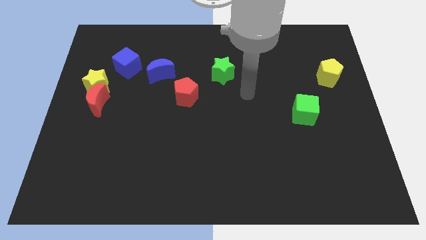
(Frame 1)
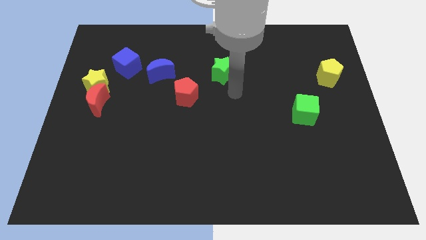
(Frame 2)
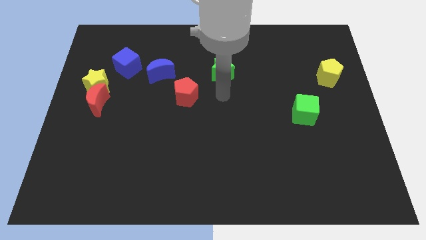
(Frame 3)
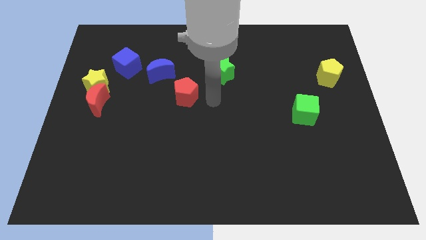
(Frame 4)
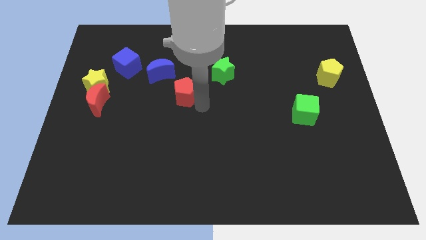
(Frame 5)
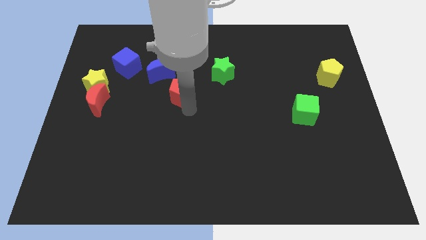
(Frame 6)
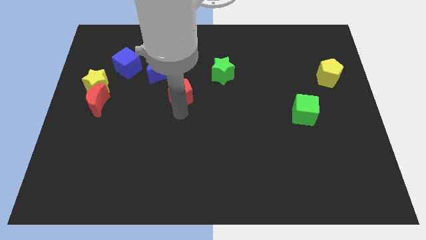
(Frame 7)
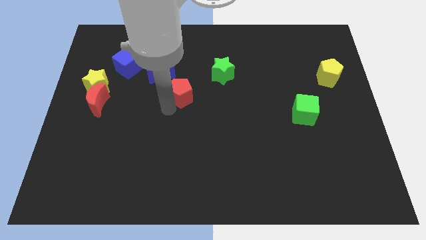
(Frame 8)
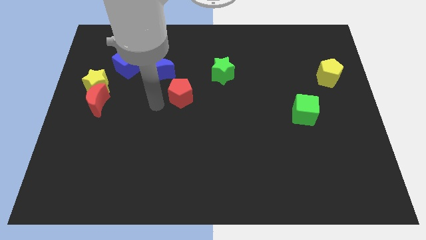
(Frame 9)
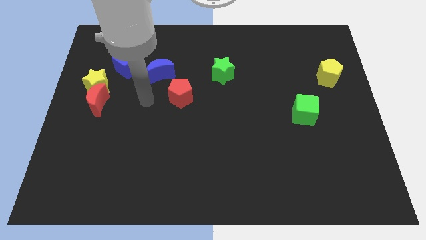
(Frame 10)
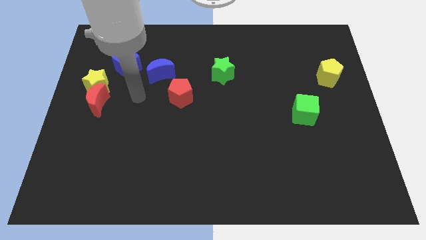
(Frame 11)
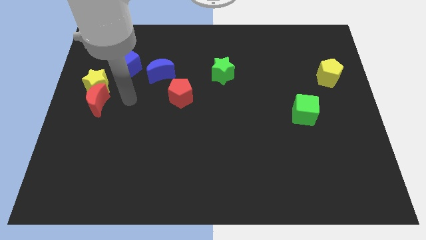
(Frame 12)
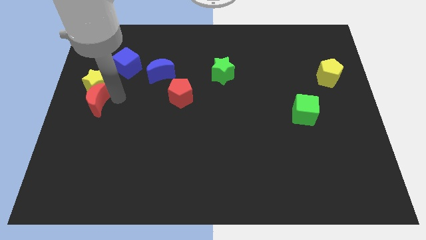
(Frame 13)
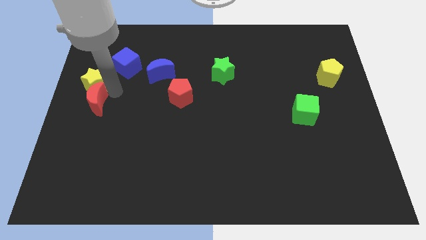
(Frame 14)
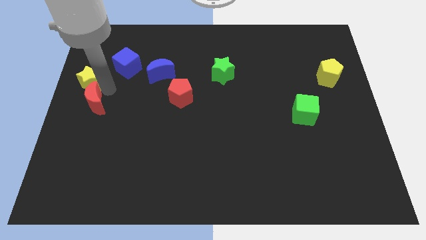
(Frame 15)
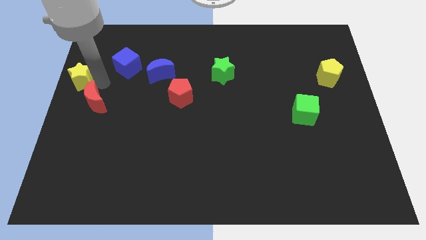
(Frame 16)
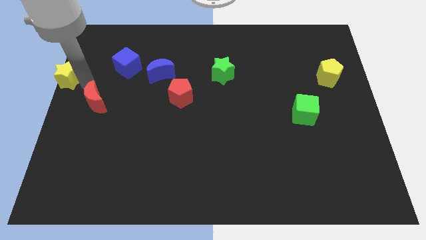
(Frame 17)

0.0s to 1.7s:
pull the red moon apart from the yellow star

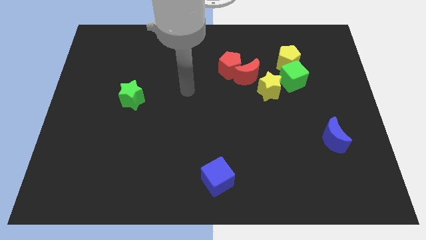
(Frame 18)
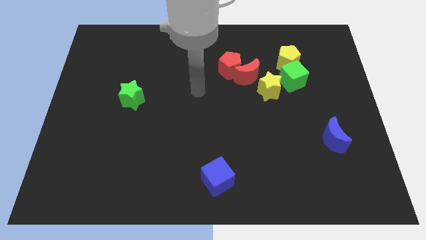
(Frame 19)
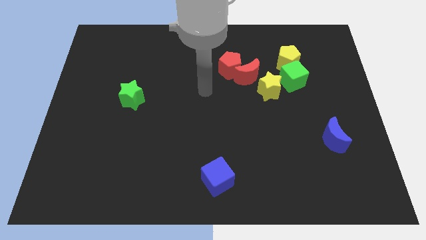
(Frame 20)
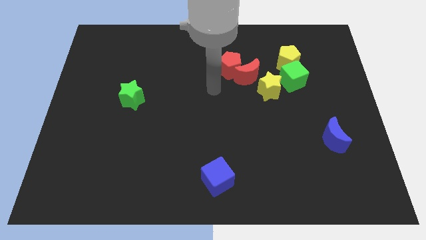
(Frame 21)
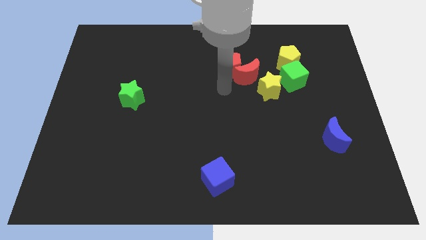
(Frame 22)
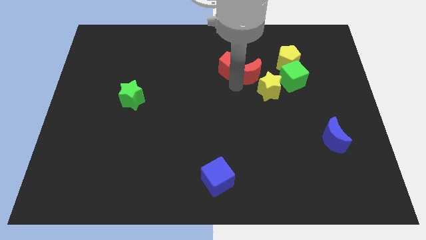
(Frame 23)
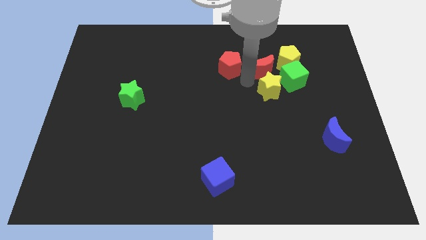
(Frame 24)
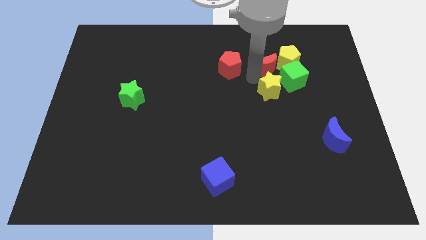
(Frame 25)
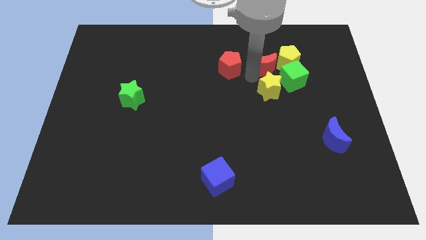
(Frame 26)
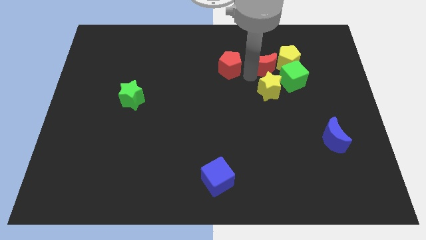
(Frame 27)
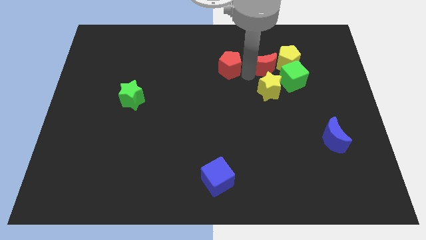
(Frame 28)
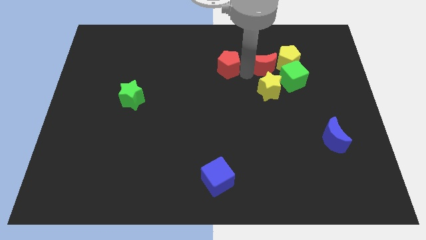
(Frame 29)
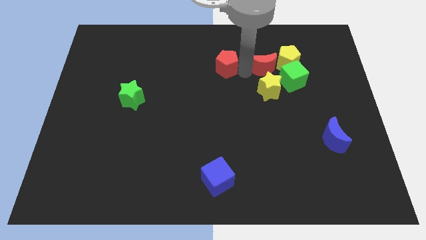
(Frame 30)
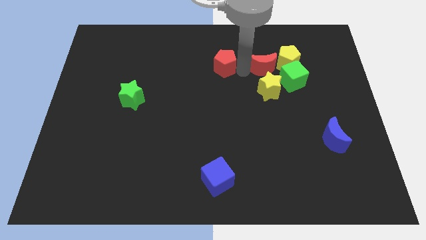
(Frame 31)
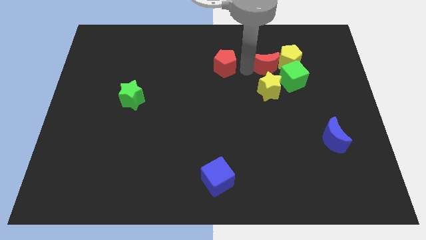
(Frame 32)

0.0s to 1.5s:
move the red pentagon away from the red moon

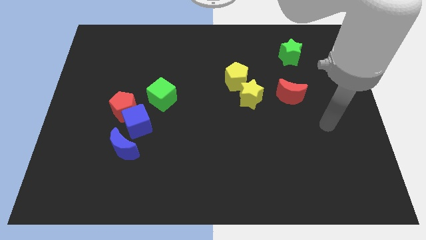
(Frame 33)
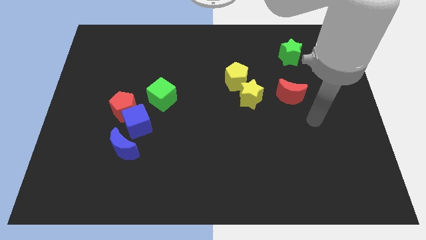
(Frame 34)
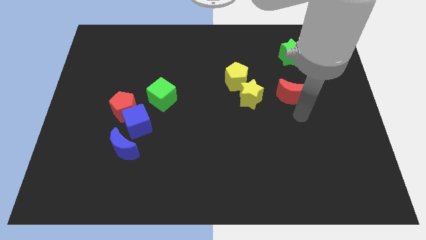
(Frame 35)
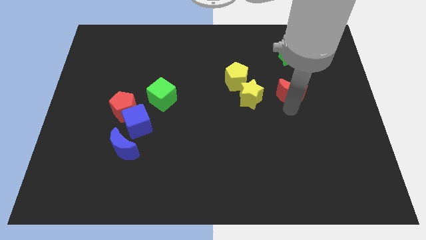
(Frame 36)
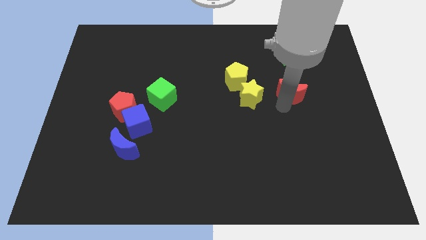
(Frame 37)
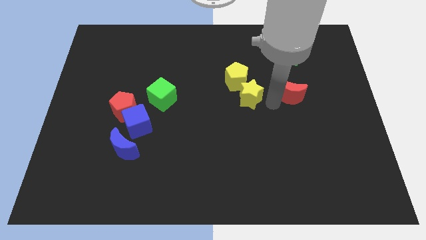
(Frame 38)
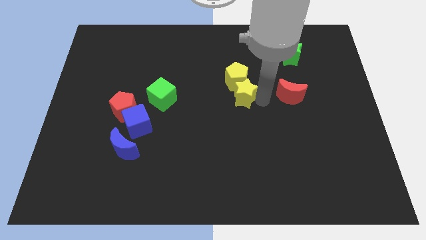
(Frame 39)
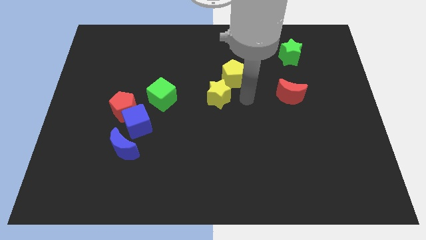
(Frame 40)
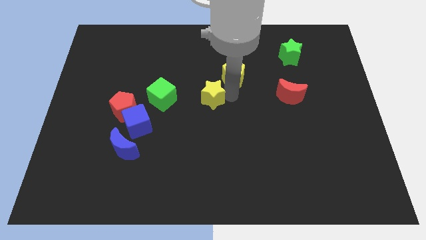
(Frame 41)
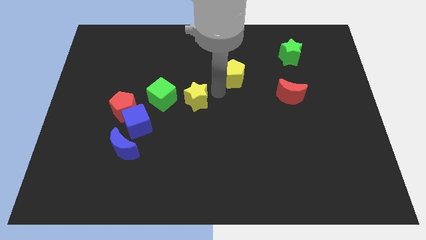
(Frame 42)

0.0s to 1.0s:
separate the yellow pentagon from the yellow star

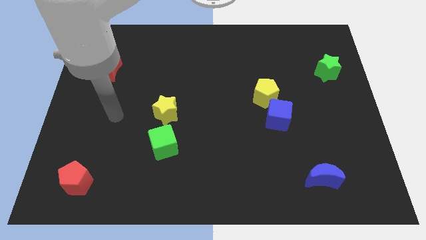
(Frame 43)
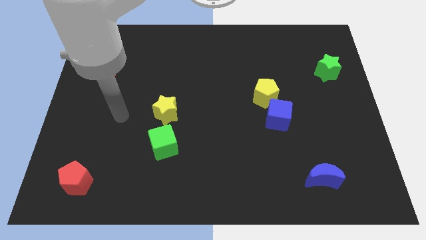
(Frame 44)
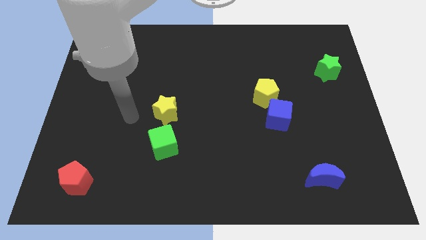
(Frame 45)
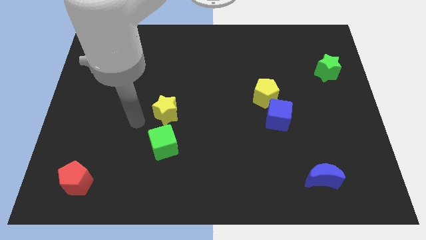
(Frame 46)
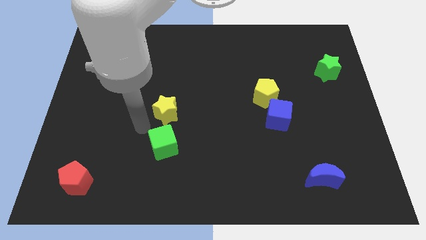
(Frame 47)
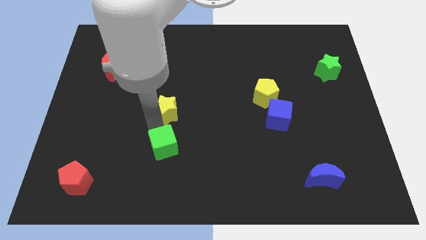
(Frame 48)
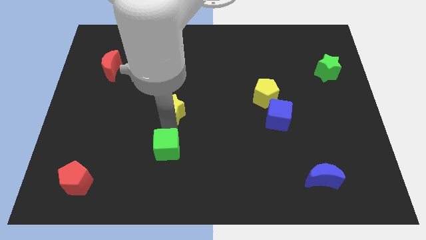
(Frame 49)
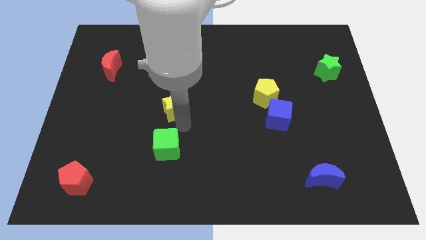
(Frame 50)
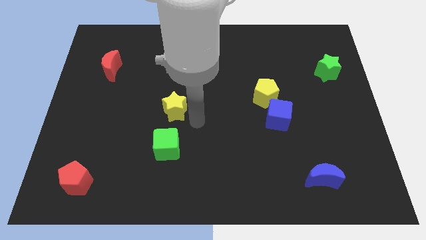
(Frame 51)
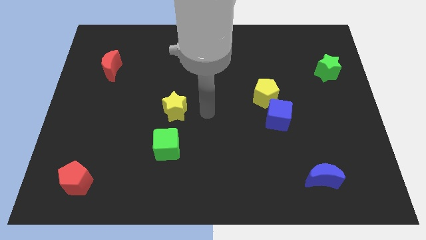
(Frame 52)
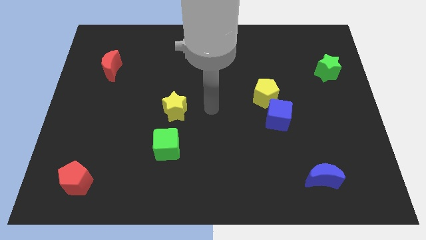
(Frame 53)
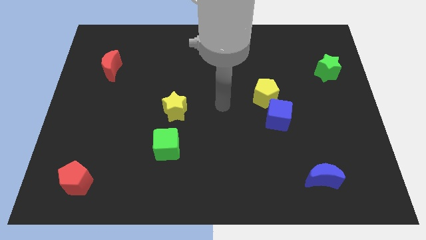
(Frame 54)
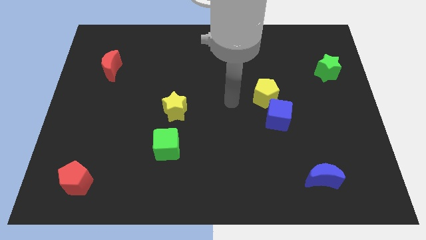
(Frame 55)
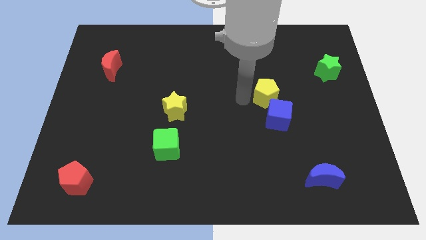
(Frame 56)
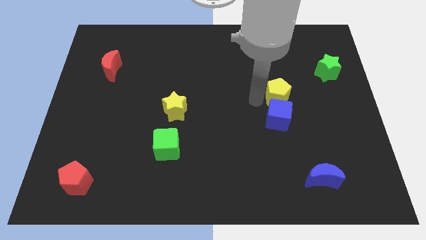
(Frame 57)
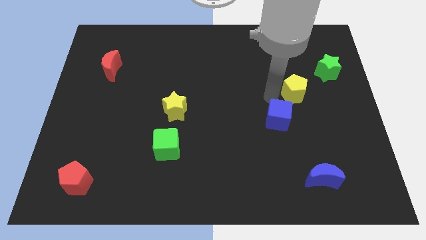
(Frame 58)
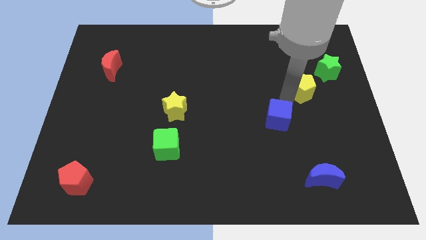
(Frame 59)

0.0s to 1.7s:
move the blue cube away from the yellow pentagon

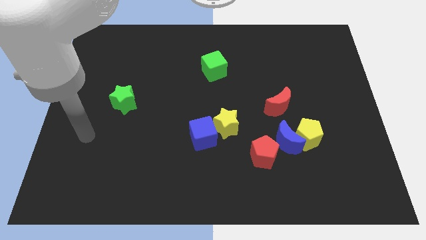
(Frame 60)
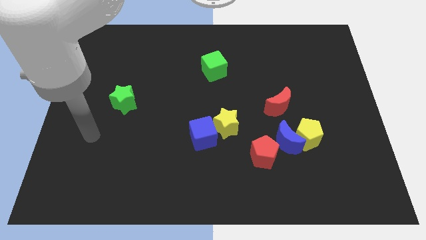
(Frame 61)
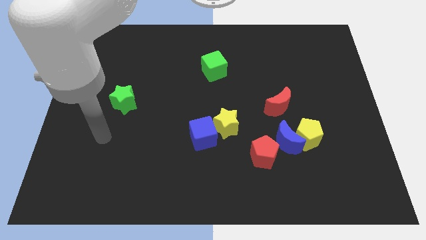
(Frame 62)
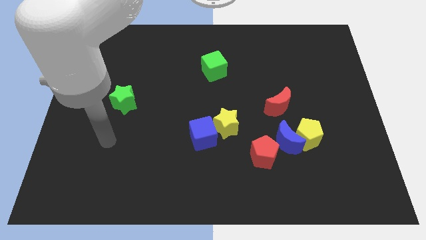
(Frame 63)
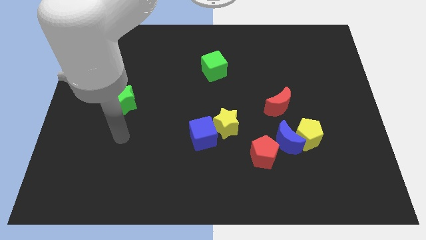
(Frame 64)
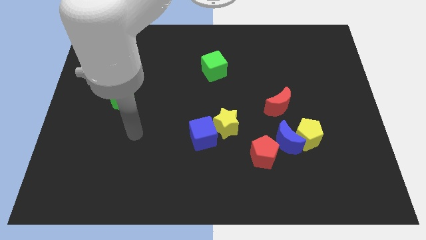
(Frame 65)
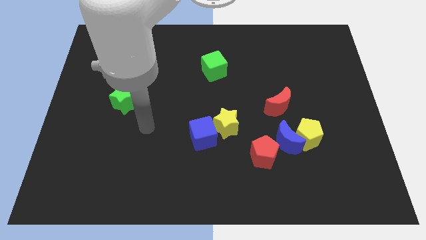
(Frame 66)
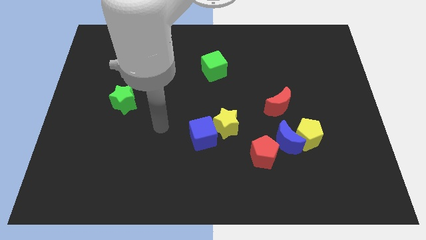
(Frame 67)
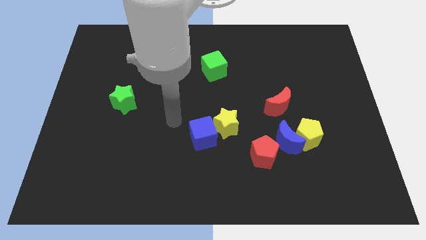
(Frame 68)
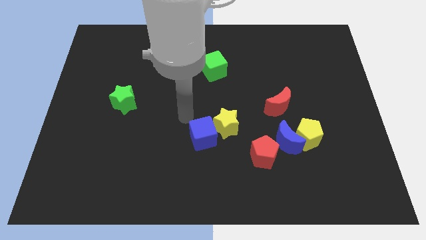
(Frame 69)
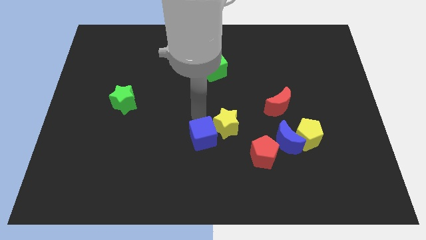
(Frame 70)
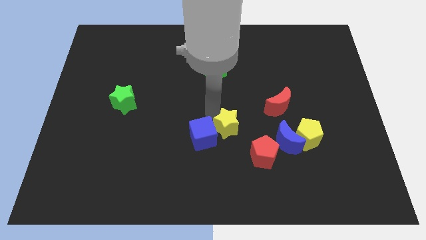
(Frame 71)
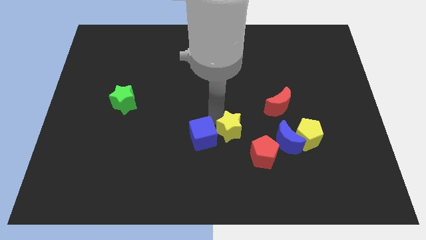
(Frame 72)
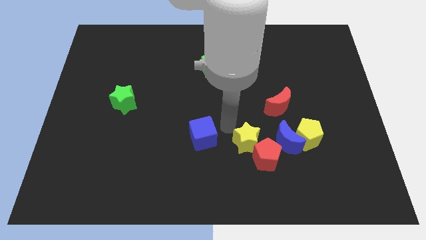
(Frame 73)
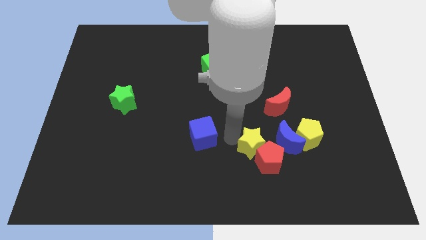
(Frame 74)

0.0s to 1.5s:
separate the blue cube from the yellow star

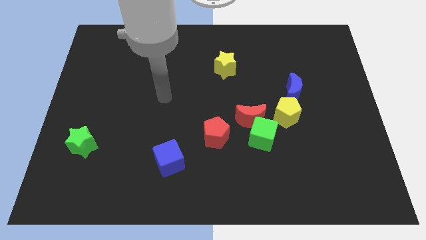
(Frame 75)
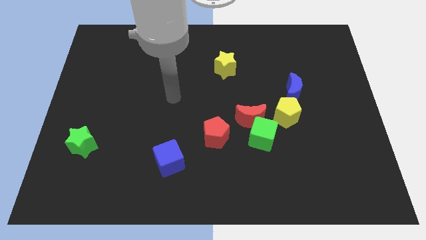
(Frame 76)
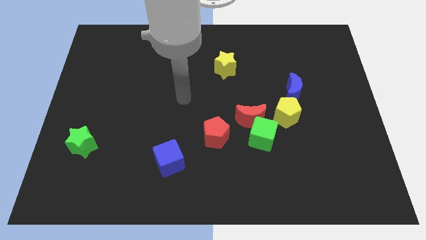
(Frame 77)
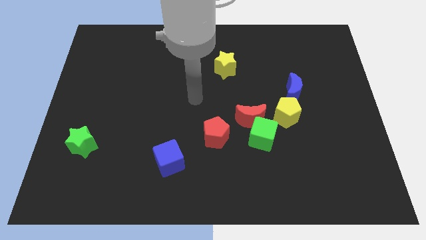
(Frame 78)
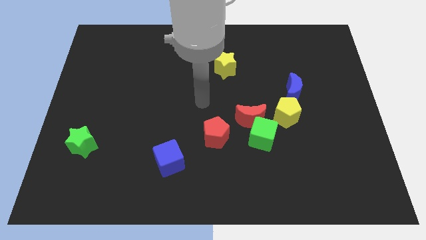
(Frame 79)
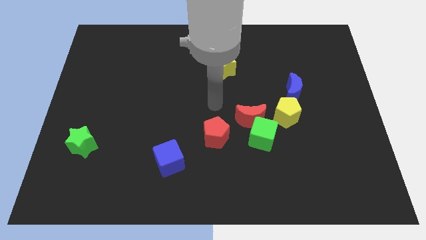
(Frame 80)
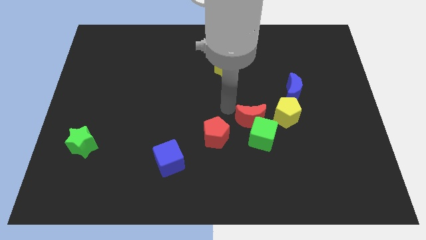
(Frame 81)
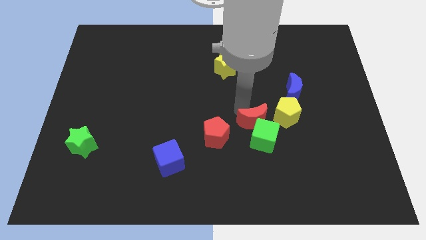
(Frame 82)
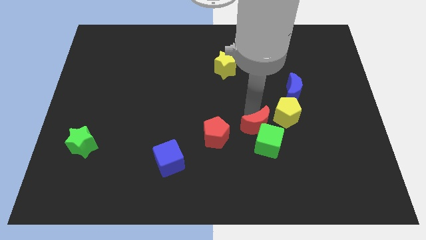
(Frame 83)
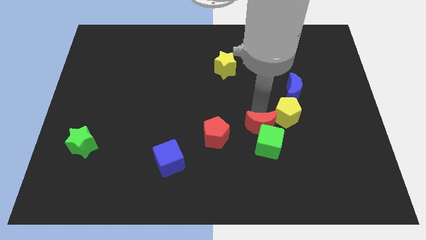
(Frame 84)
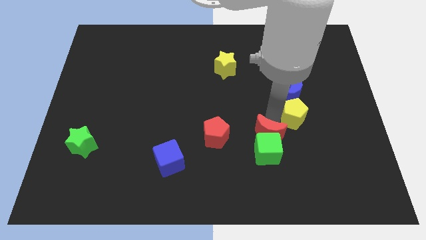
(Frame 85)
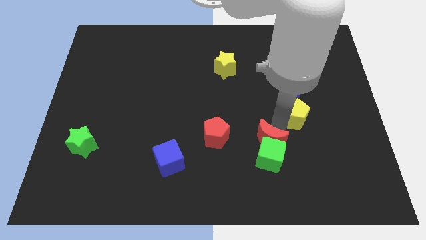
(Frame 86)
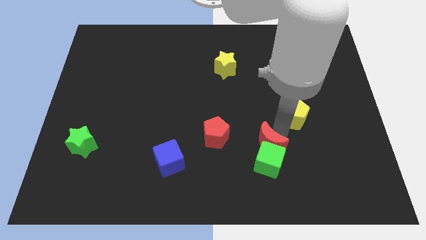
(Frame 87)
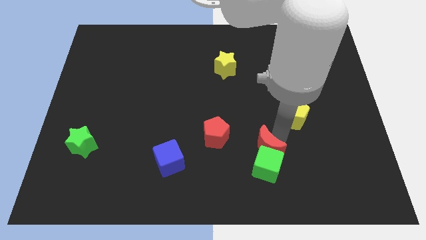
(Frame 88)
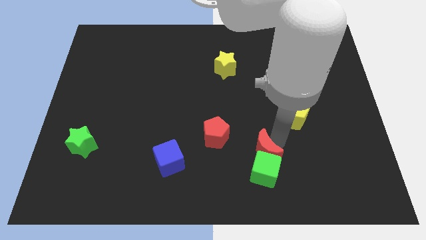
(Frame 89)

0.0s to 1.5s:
pull the green cube apart from the red moon and yellow pentagon

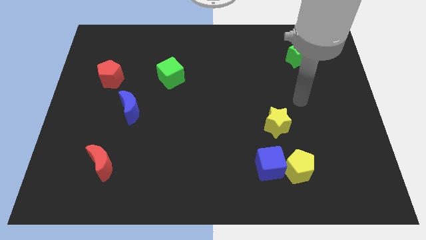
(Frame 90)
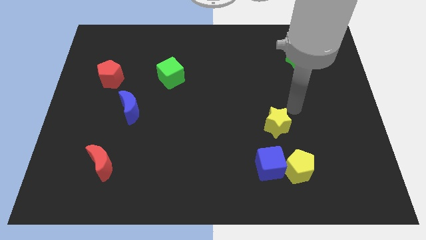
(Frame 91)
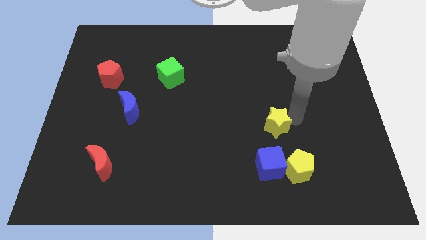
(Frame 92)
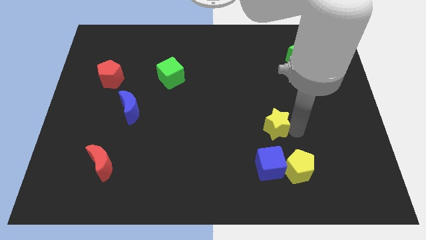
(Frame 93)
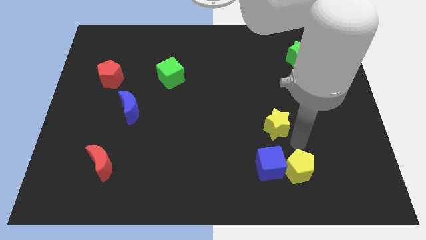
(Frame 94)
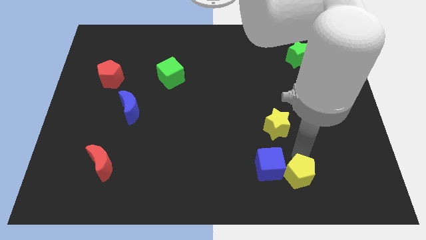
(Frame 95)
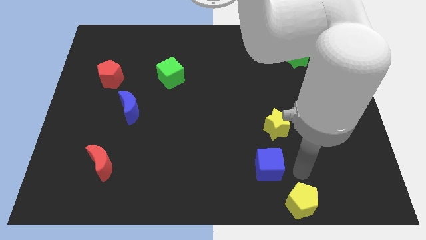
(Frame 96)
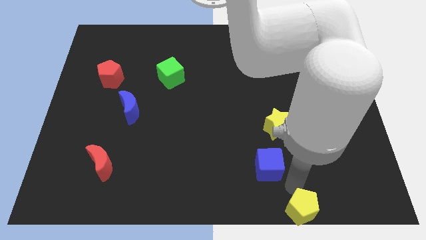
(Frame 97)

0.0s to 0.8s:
pull the blue cube apart from the yellow pentagon
